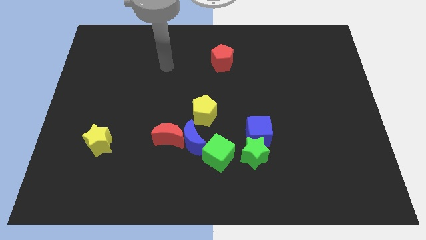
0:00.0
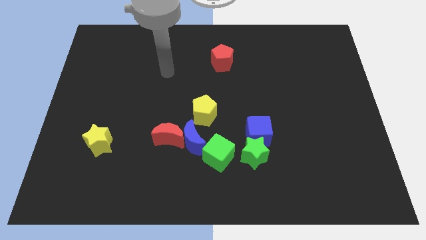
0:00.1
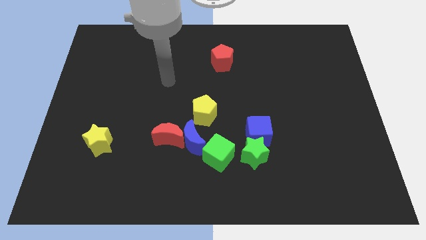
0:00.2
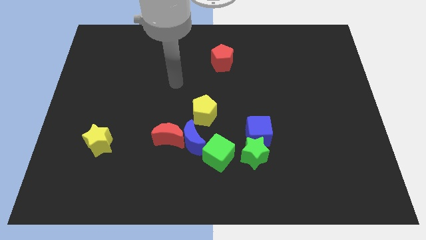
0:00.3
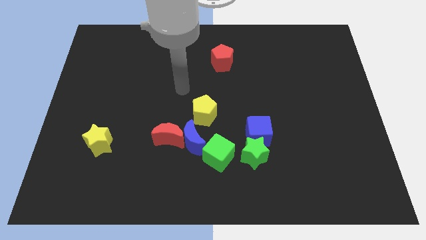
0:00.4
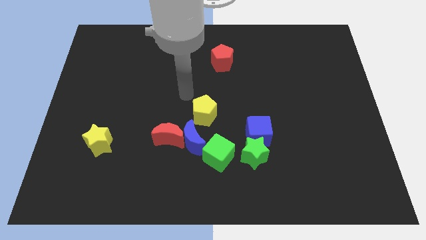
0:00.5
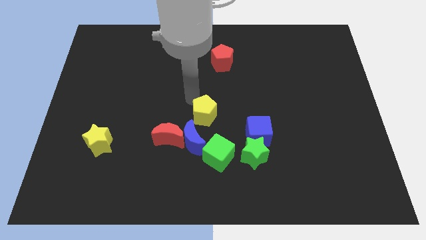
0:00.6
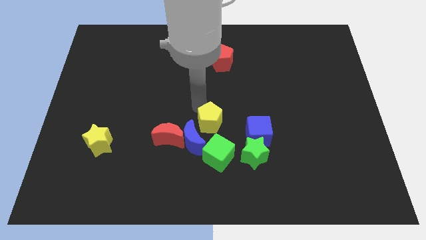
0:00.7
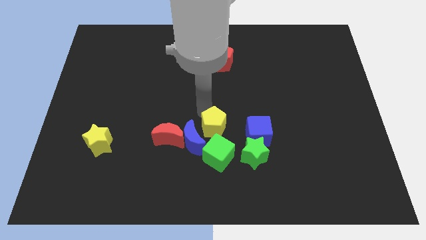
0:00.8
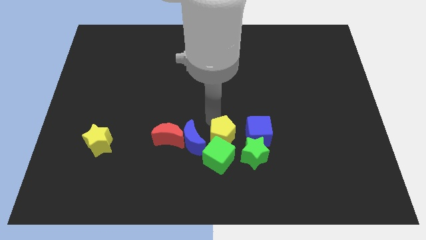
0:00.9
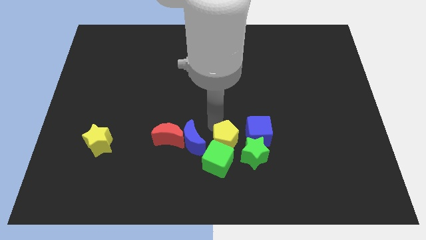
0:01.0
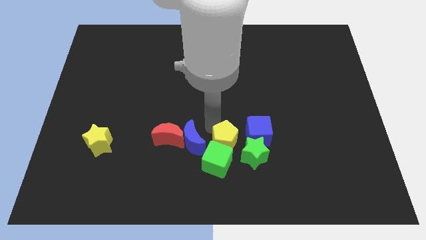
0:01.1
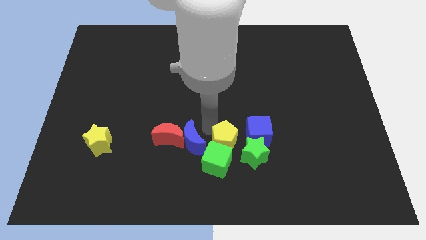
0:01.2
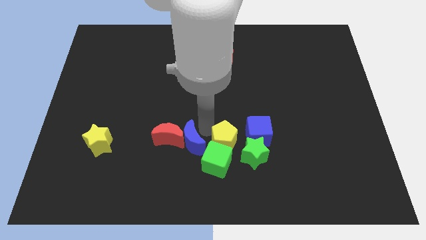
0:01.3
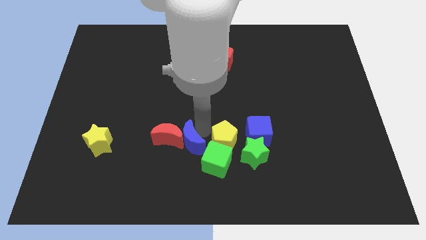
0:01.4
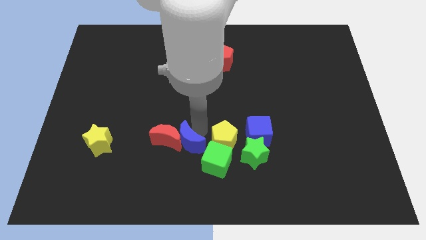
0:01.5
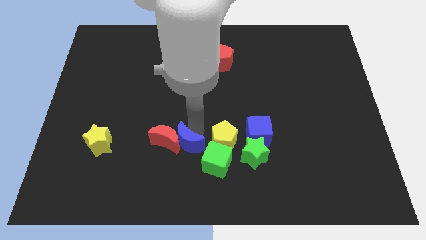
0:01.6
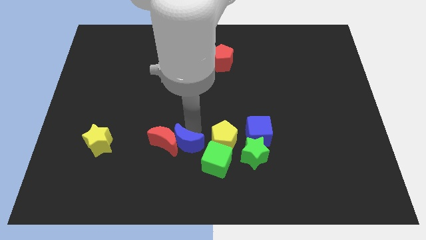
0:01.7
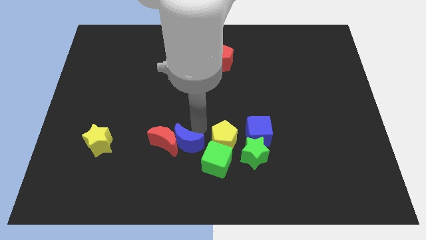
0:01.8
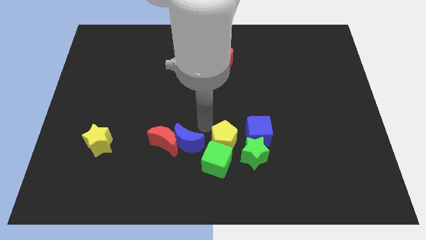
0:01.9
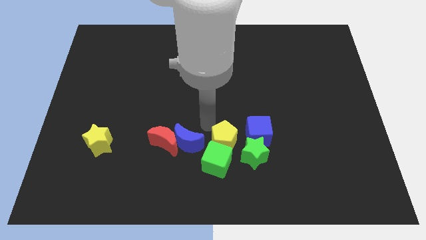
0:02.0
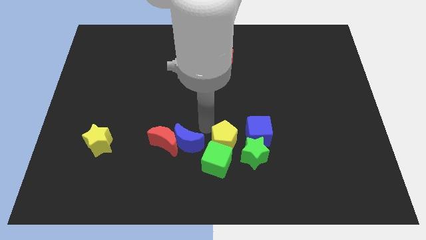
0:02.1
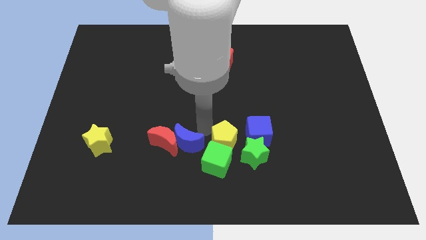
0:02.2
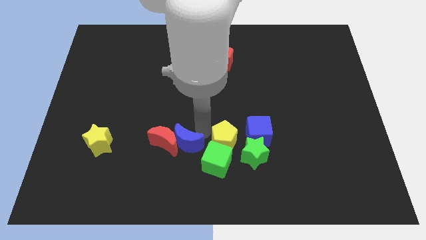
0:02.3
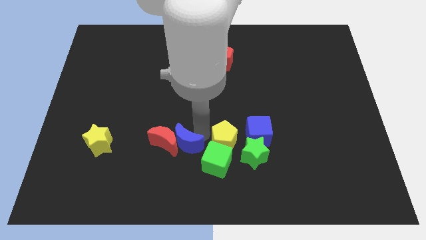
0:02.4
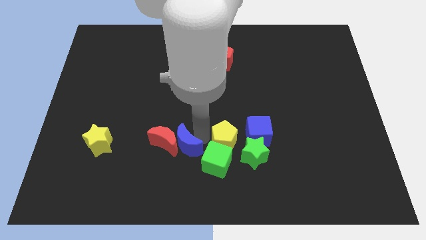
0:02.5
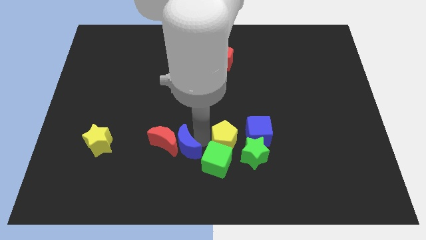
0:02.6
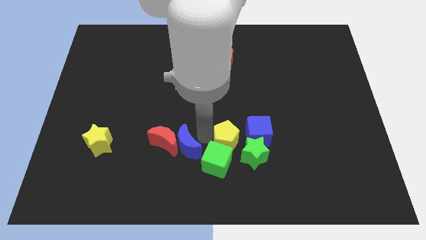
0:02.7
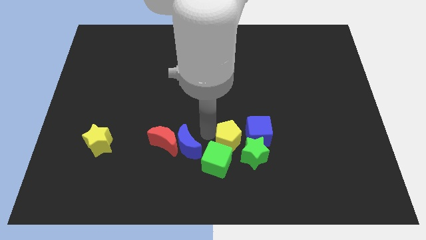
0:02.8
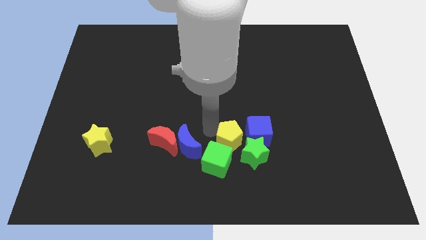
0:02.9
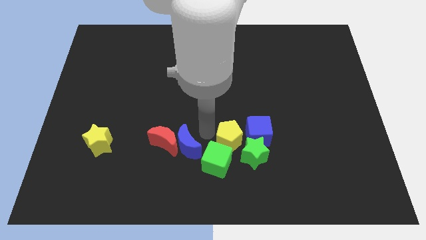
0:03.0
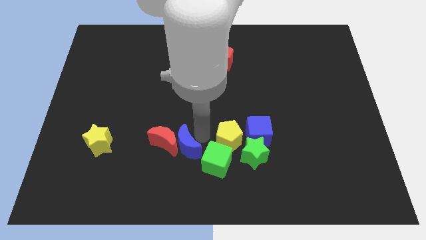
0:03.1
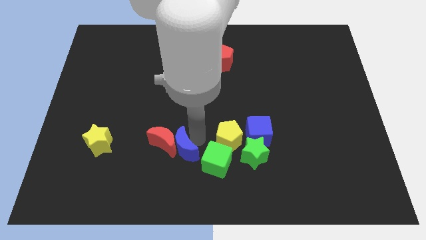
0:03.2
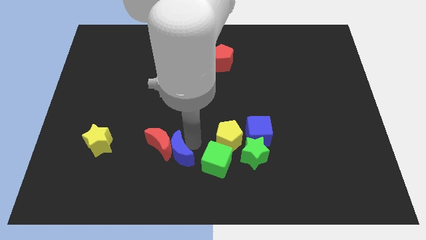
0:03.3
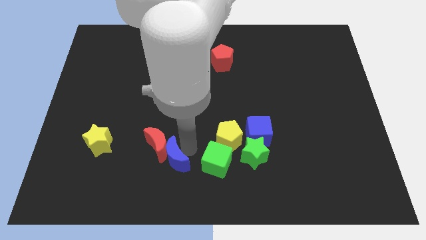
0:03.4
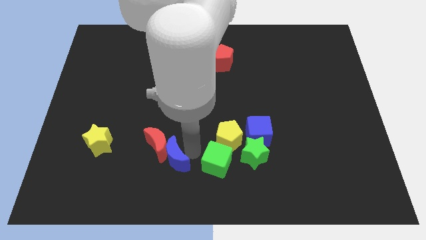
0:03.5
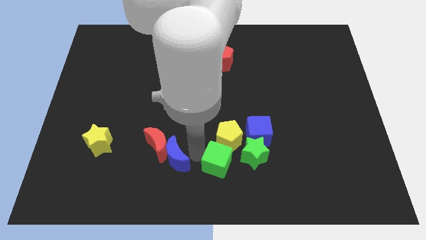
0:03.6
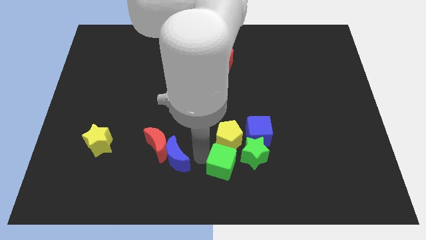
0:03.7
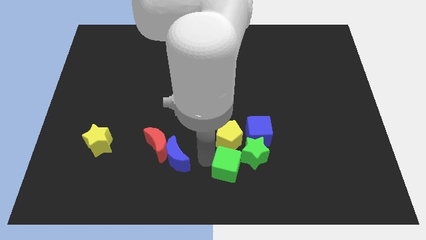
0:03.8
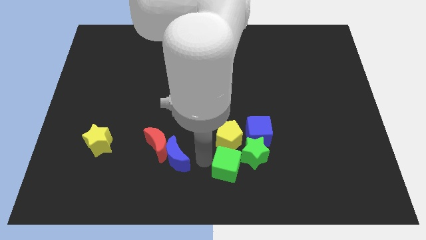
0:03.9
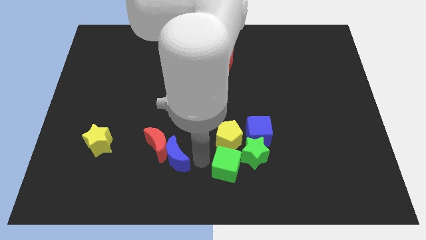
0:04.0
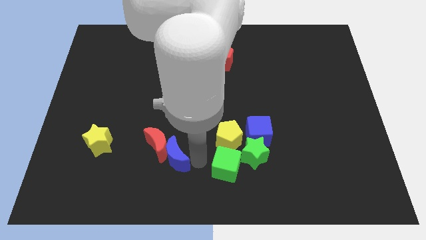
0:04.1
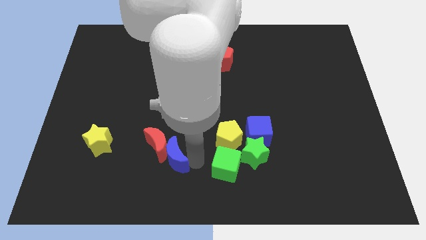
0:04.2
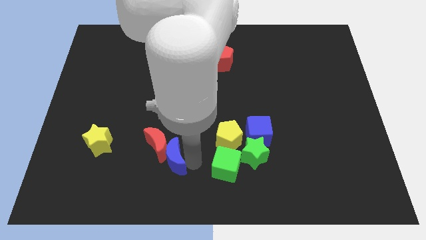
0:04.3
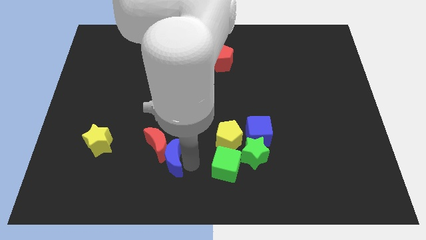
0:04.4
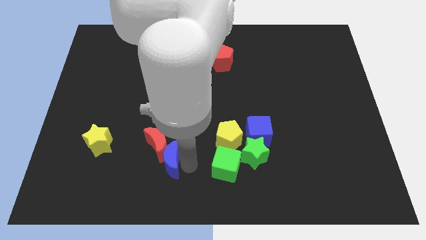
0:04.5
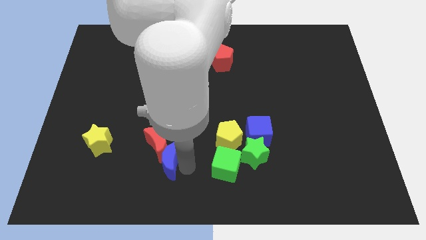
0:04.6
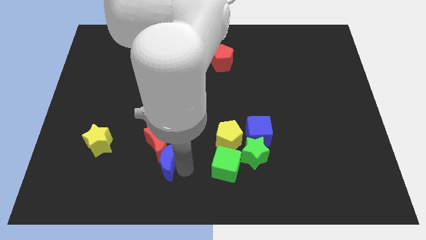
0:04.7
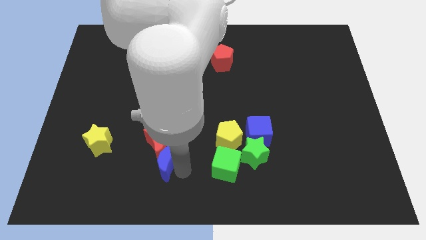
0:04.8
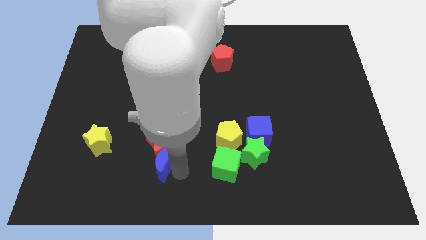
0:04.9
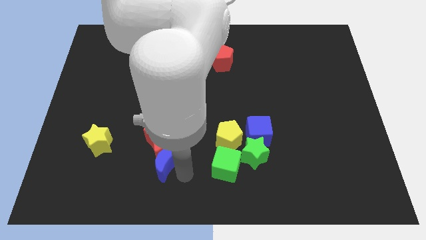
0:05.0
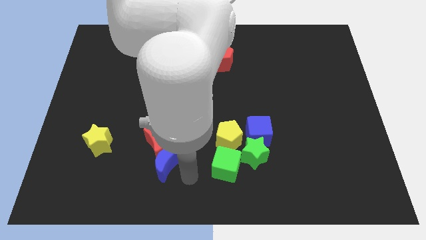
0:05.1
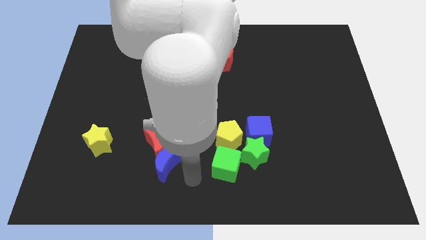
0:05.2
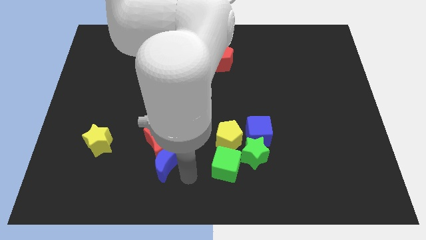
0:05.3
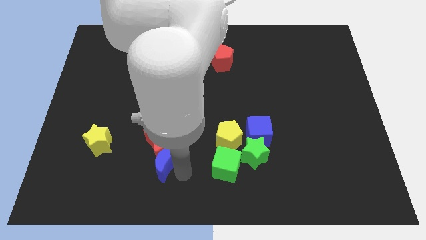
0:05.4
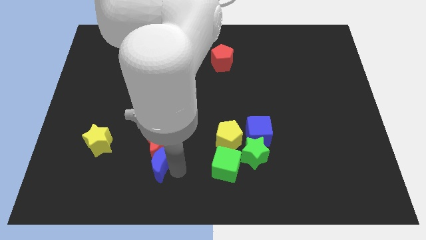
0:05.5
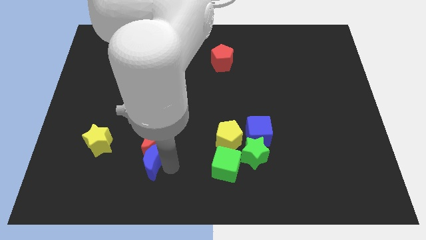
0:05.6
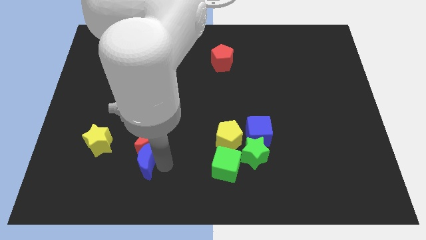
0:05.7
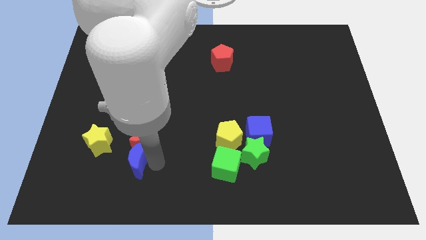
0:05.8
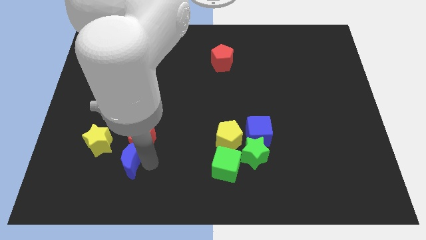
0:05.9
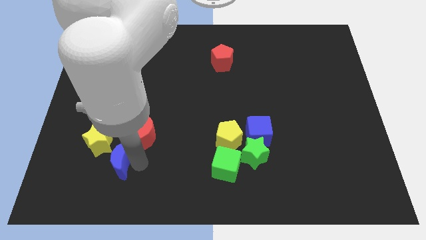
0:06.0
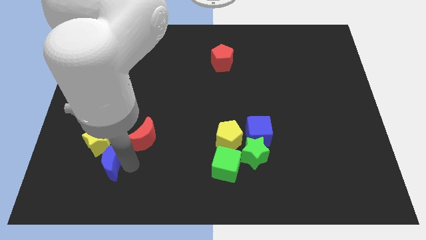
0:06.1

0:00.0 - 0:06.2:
move the blue moon next to the yellow star
